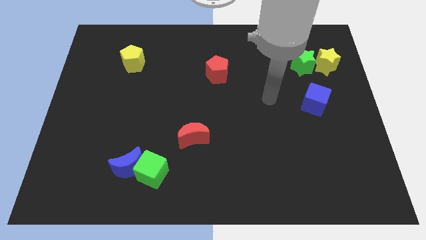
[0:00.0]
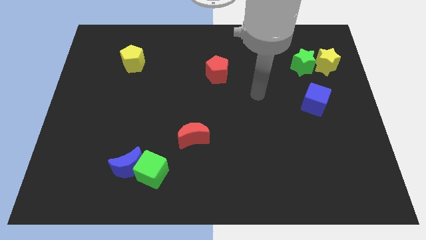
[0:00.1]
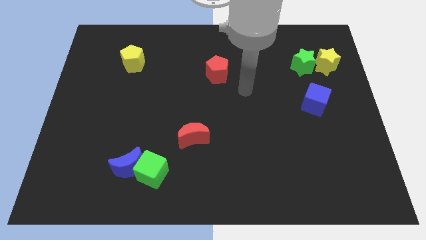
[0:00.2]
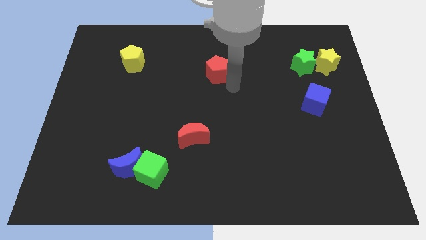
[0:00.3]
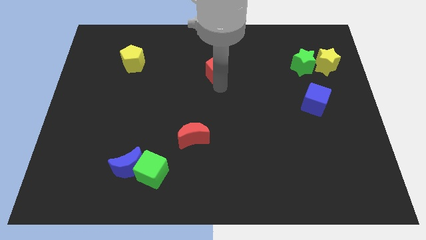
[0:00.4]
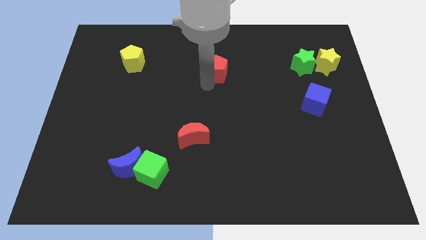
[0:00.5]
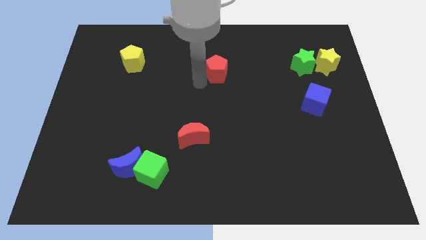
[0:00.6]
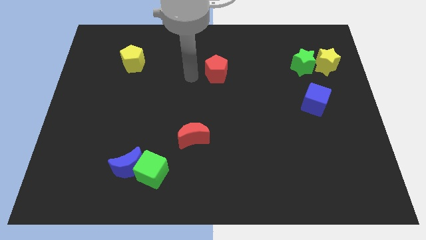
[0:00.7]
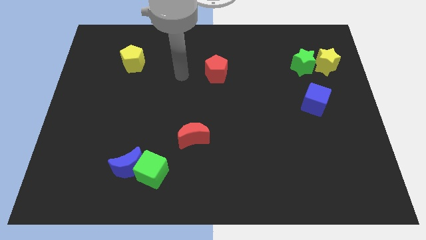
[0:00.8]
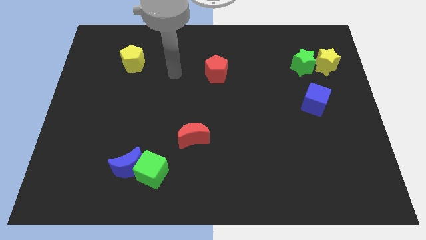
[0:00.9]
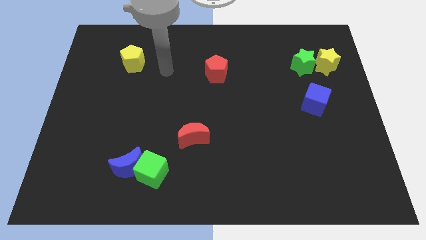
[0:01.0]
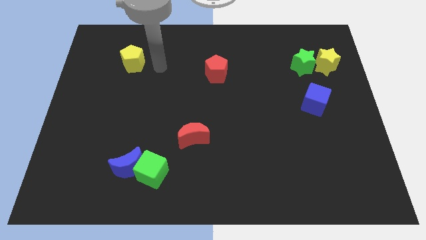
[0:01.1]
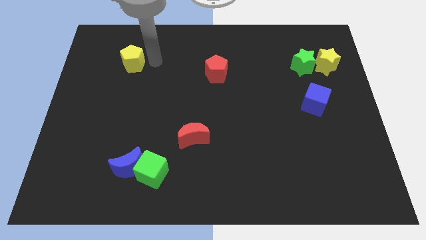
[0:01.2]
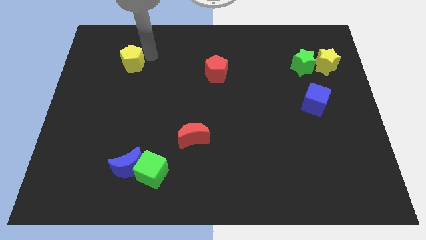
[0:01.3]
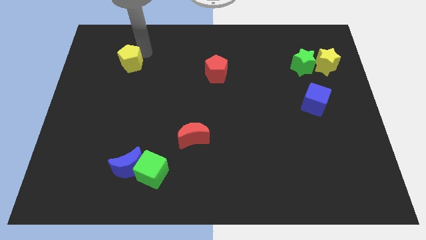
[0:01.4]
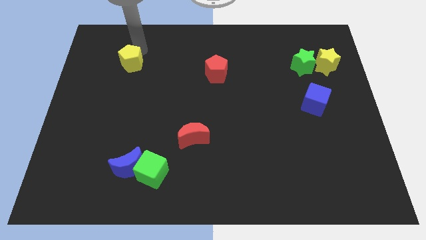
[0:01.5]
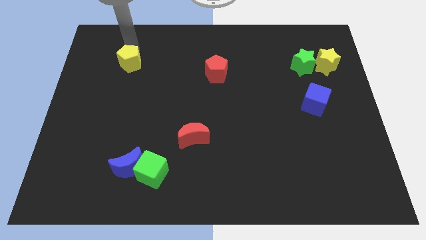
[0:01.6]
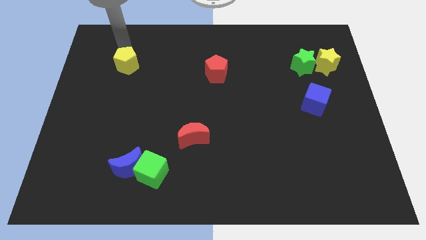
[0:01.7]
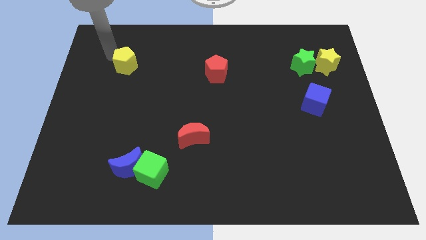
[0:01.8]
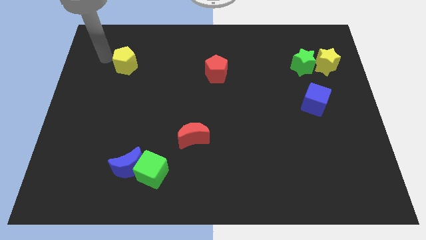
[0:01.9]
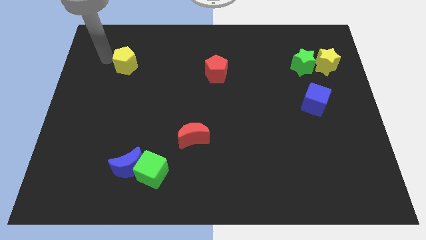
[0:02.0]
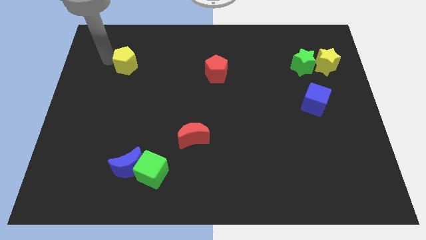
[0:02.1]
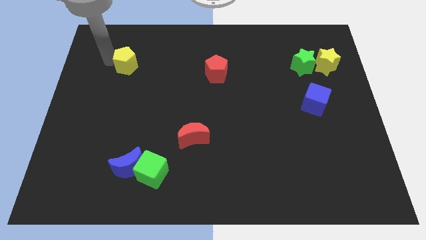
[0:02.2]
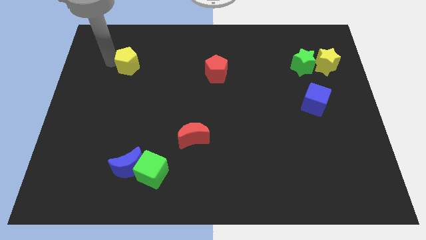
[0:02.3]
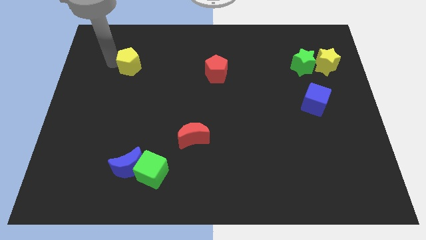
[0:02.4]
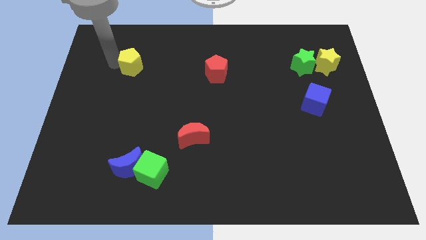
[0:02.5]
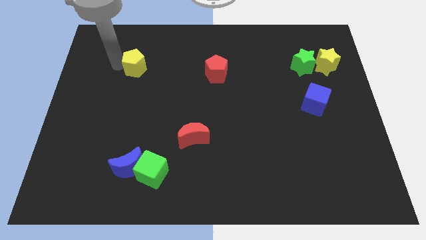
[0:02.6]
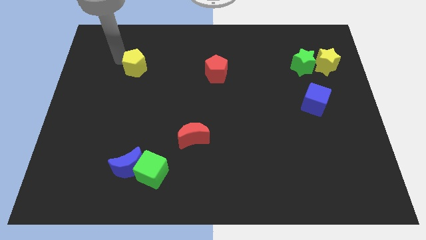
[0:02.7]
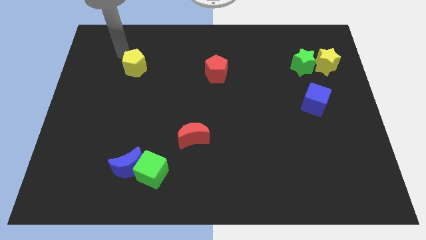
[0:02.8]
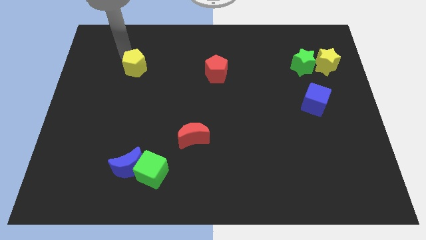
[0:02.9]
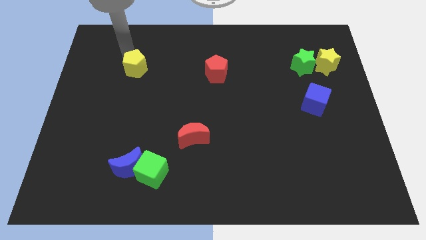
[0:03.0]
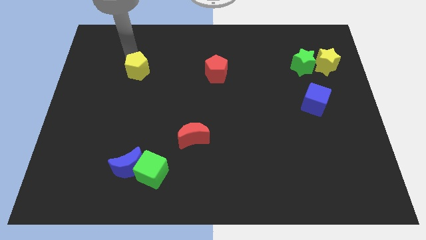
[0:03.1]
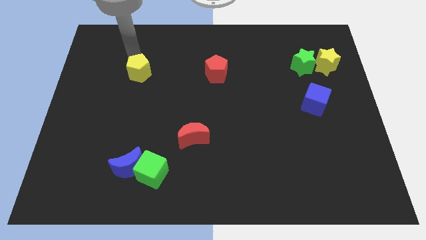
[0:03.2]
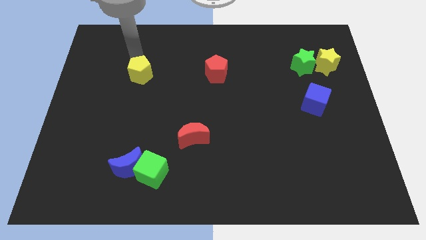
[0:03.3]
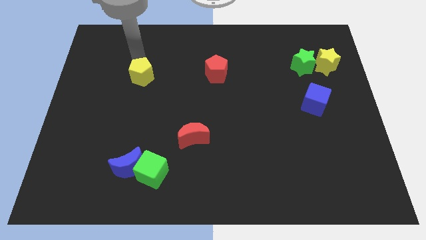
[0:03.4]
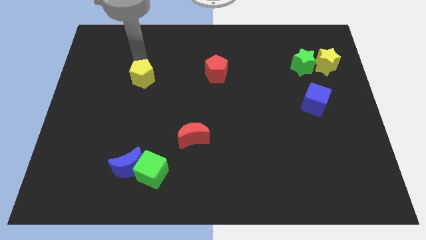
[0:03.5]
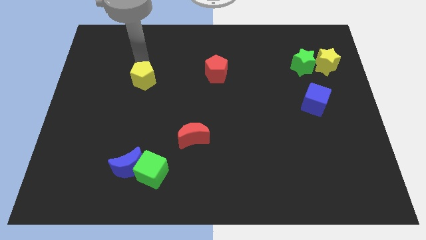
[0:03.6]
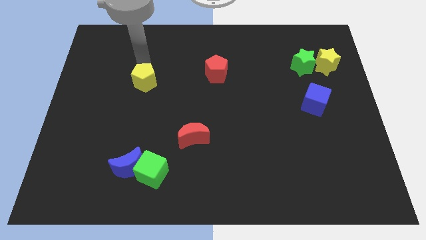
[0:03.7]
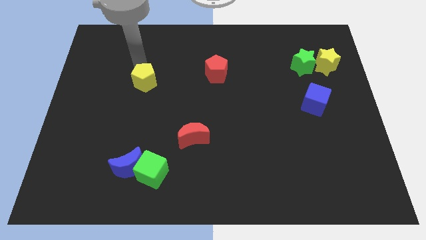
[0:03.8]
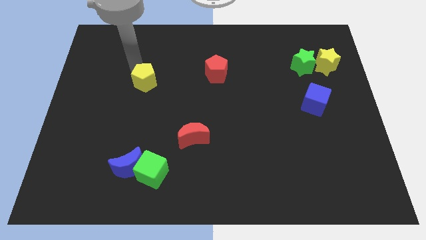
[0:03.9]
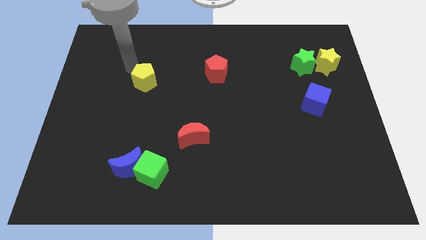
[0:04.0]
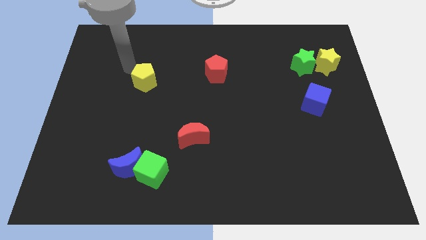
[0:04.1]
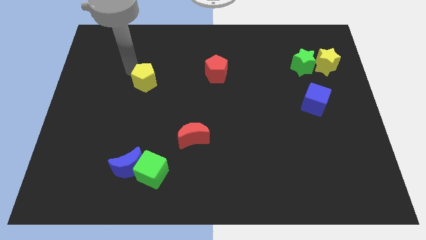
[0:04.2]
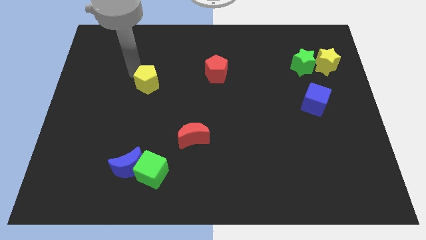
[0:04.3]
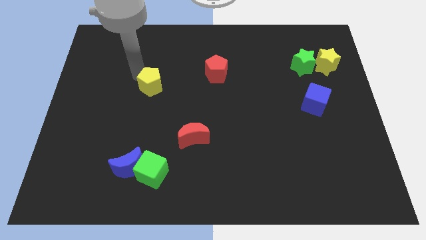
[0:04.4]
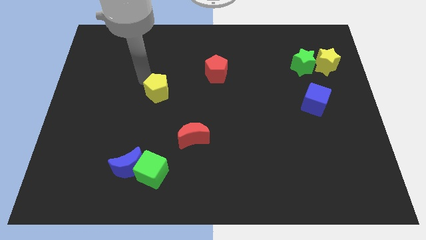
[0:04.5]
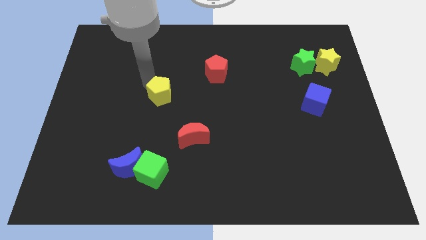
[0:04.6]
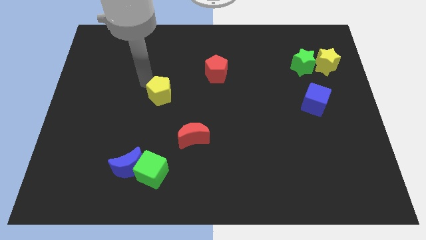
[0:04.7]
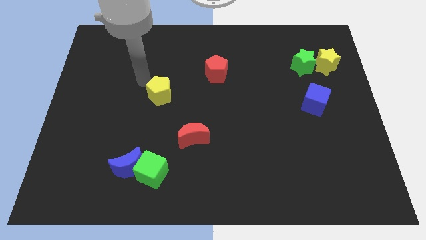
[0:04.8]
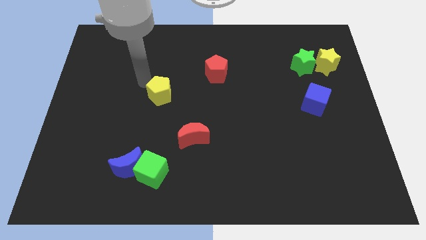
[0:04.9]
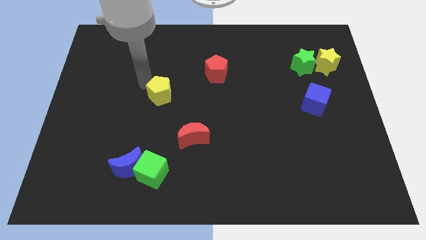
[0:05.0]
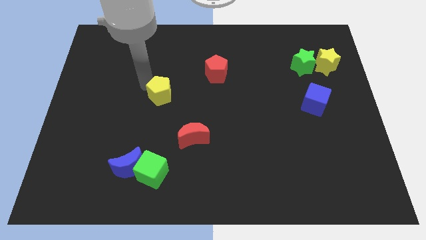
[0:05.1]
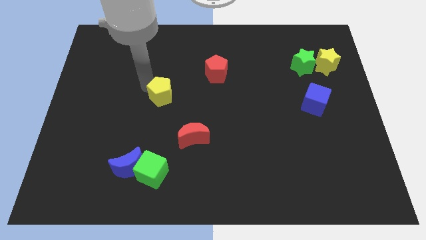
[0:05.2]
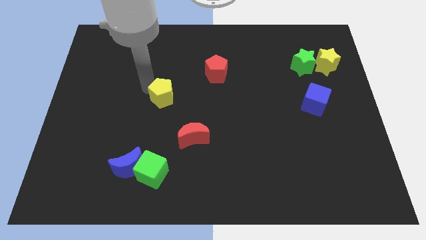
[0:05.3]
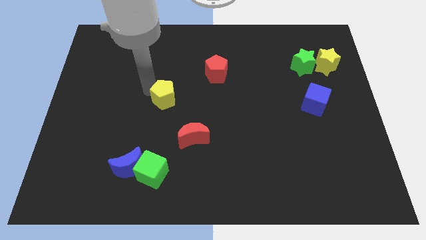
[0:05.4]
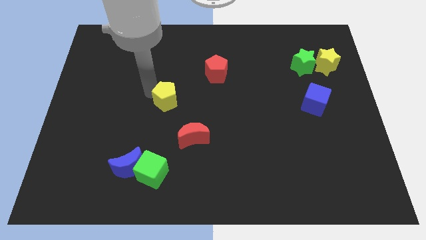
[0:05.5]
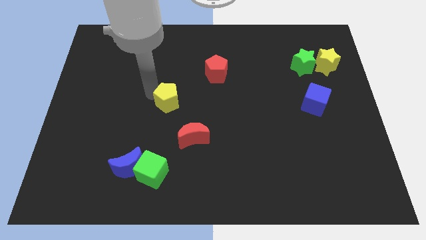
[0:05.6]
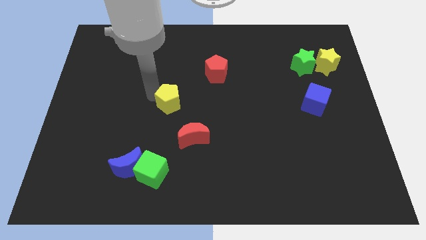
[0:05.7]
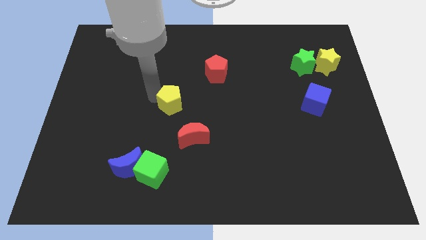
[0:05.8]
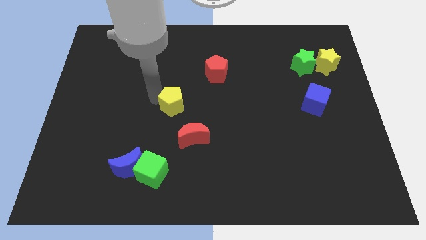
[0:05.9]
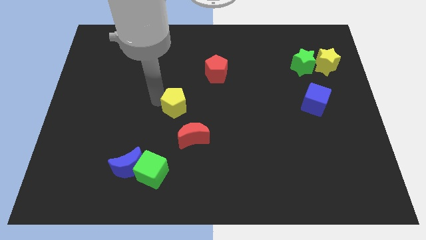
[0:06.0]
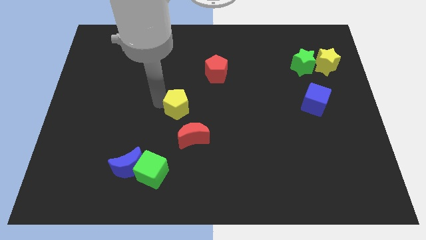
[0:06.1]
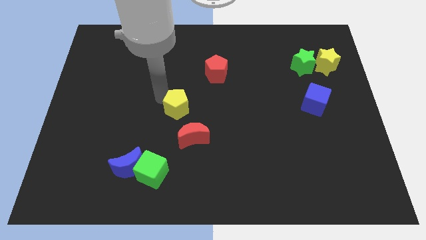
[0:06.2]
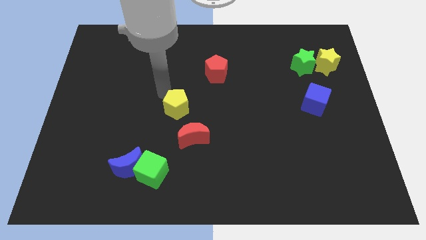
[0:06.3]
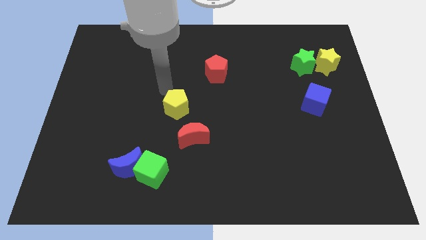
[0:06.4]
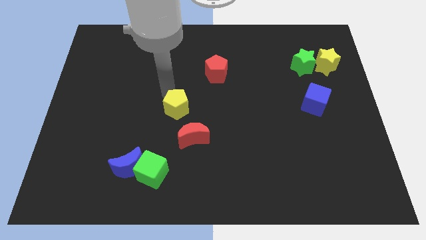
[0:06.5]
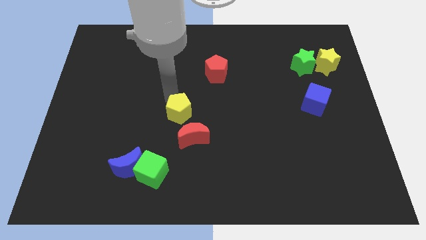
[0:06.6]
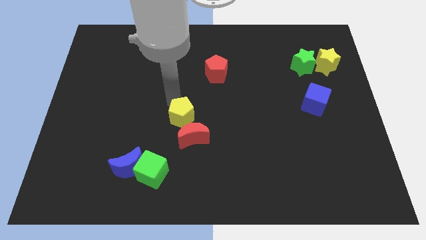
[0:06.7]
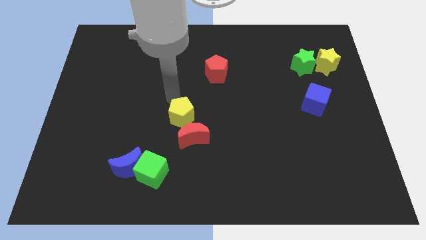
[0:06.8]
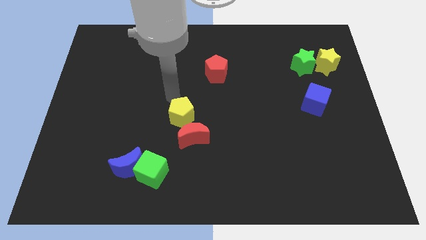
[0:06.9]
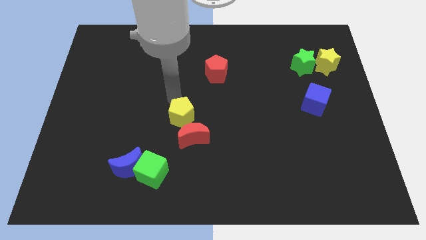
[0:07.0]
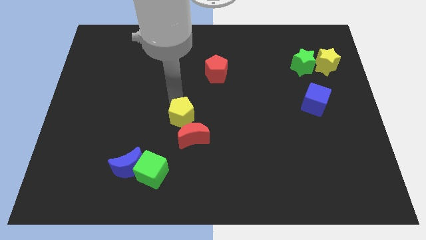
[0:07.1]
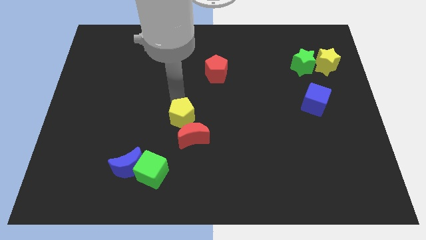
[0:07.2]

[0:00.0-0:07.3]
push the yellow pentagon close to the red moon
